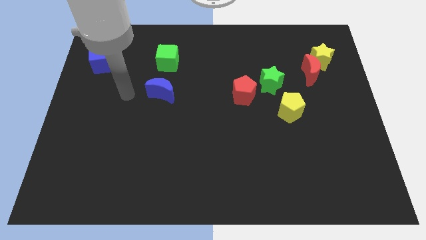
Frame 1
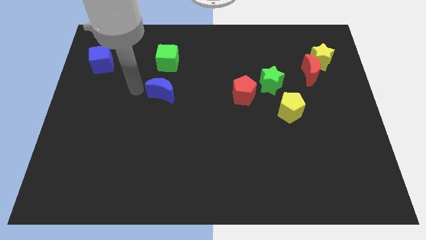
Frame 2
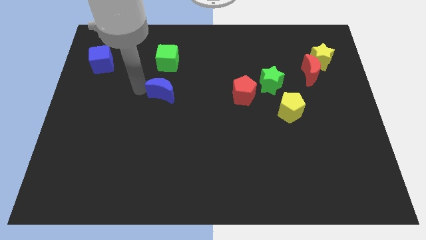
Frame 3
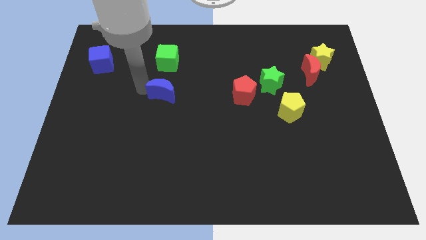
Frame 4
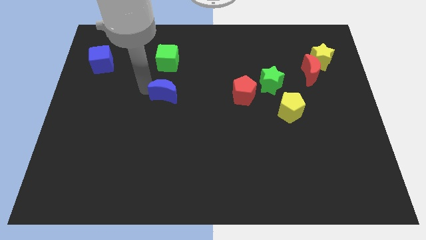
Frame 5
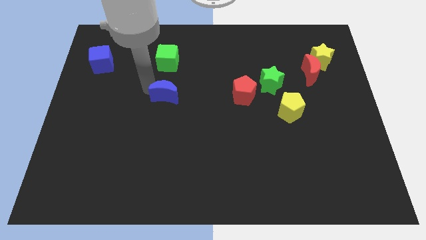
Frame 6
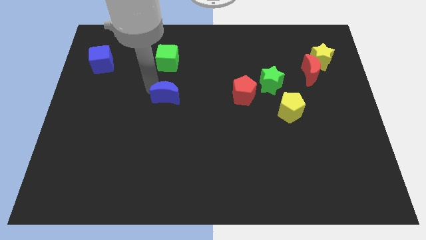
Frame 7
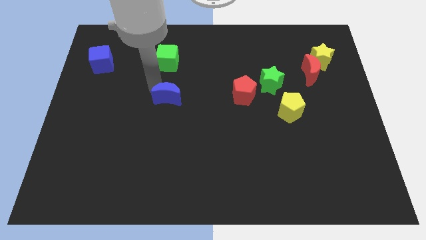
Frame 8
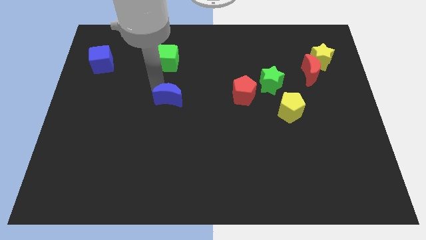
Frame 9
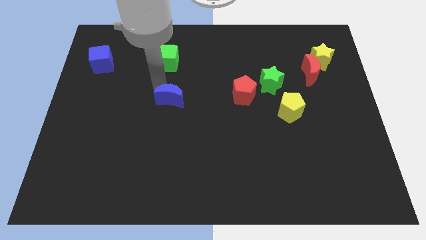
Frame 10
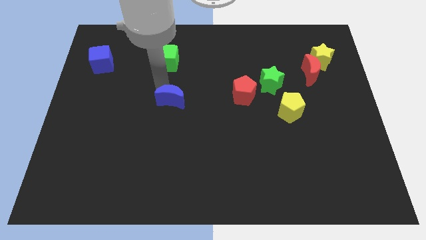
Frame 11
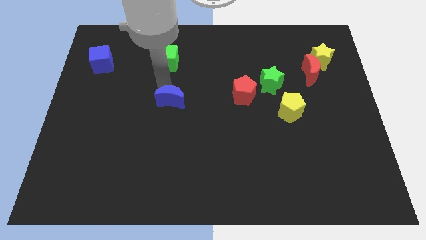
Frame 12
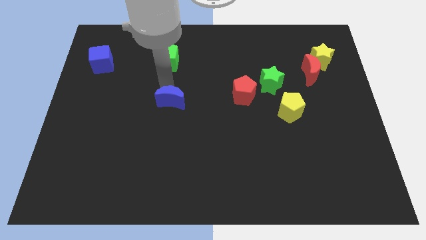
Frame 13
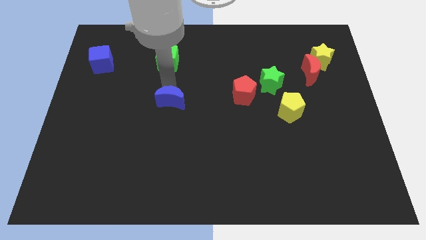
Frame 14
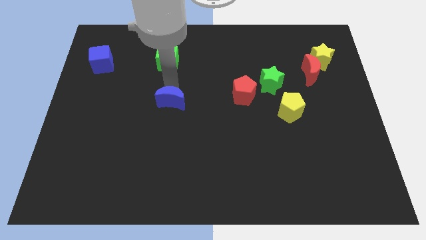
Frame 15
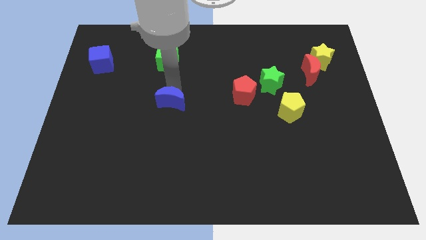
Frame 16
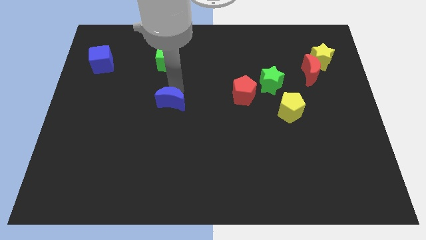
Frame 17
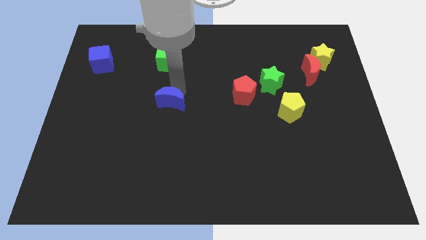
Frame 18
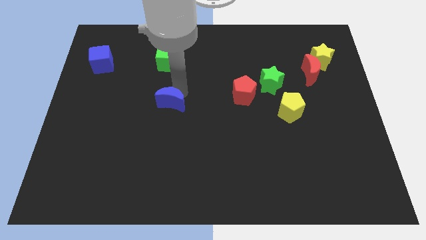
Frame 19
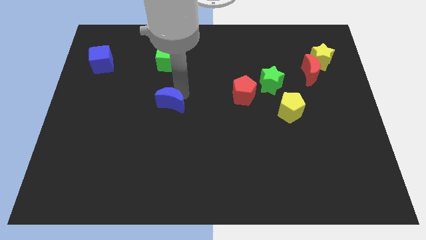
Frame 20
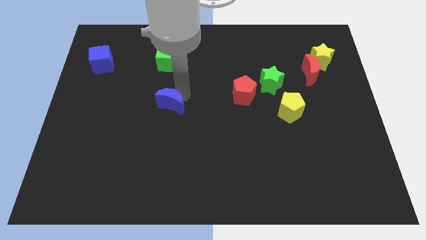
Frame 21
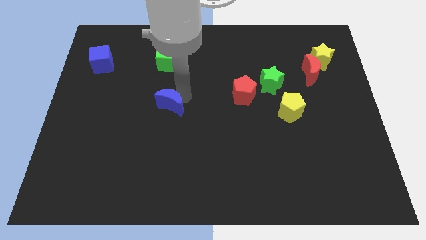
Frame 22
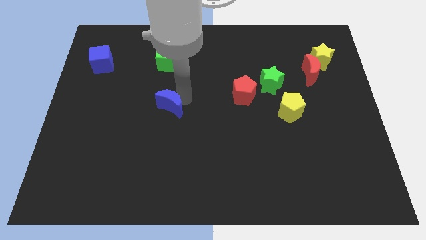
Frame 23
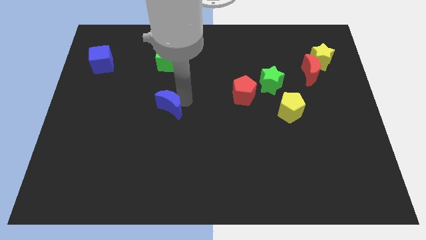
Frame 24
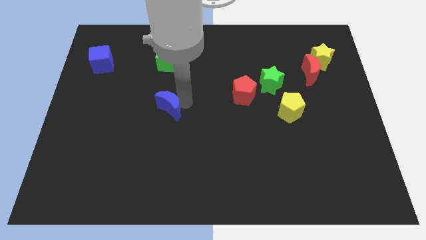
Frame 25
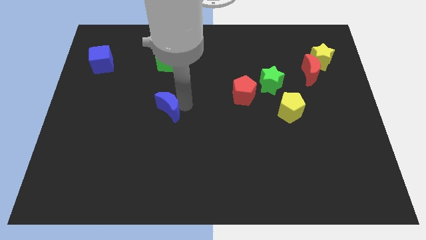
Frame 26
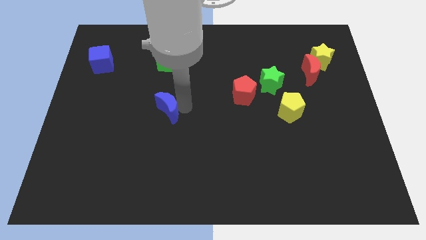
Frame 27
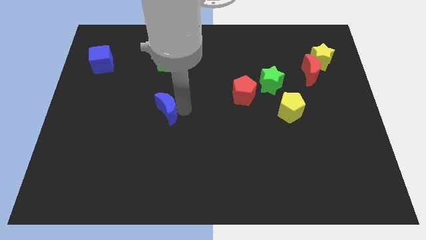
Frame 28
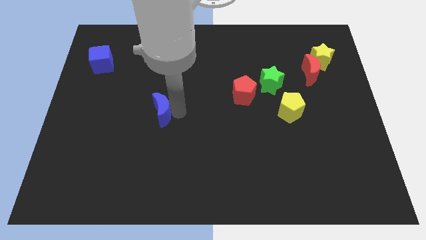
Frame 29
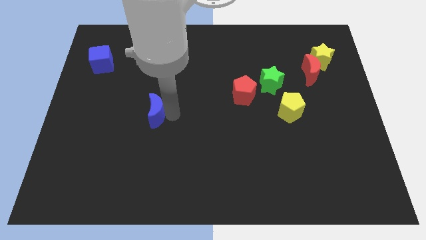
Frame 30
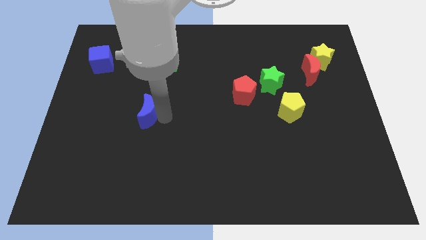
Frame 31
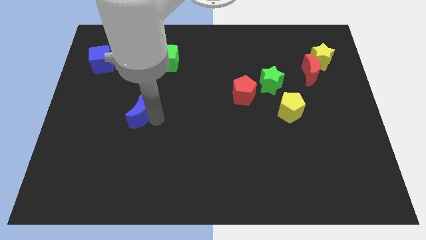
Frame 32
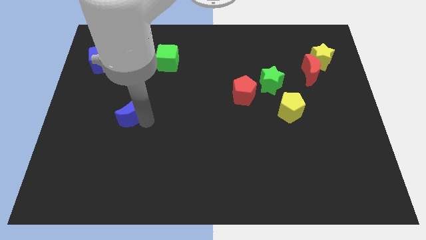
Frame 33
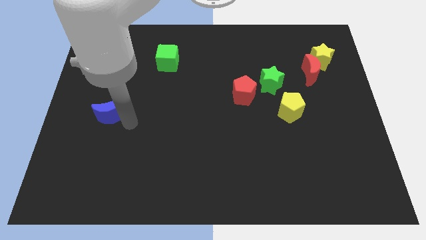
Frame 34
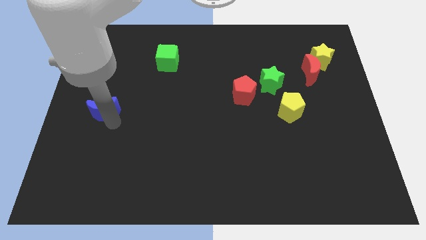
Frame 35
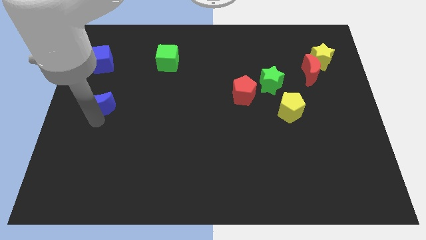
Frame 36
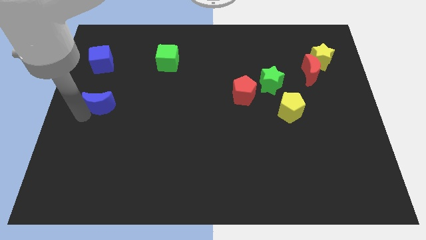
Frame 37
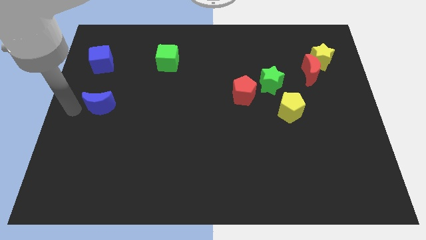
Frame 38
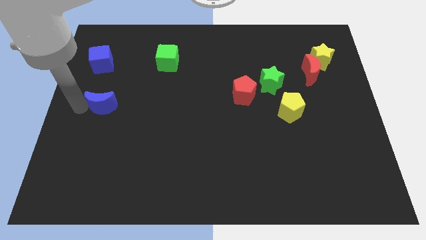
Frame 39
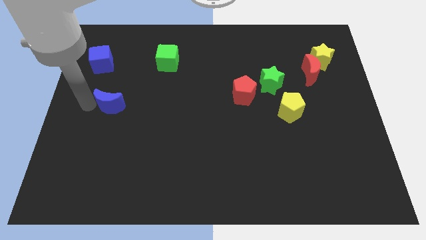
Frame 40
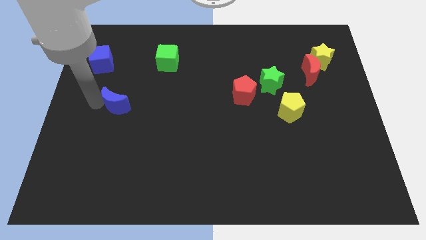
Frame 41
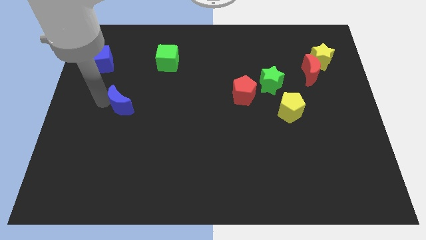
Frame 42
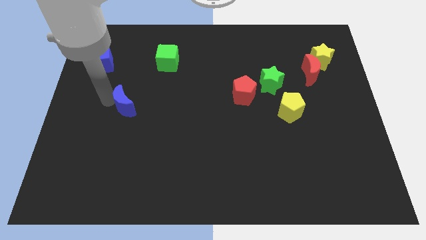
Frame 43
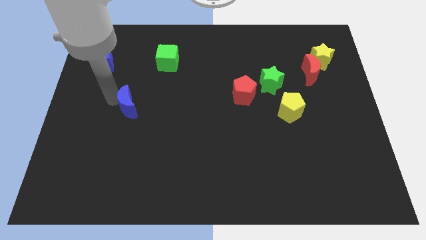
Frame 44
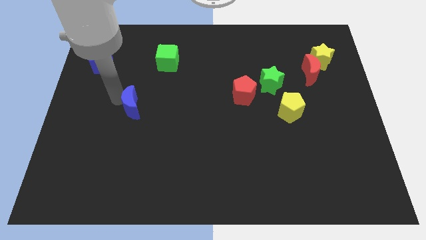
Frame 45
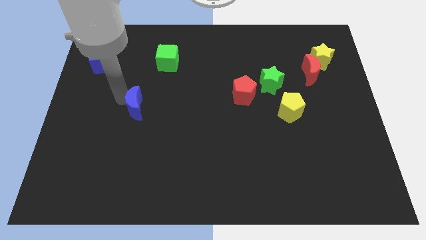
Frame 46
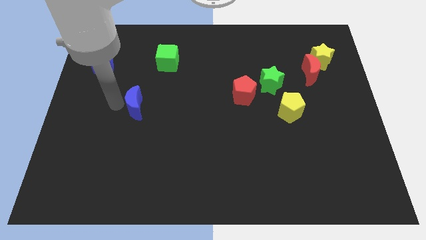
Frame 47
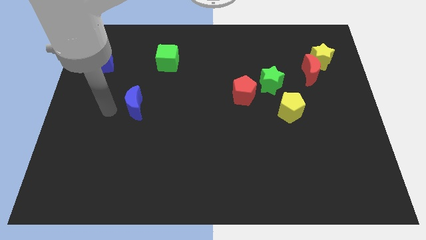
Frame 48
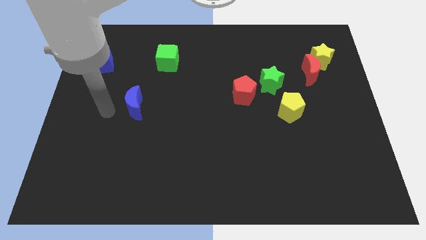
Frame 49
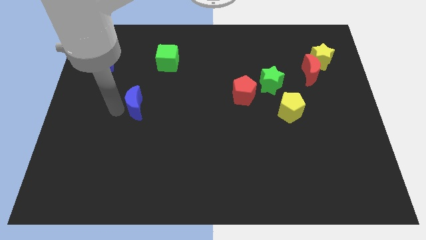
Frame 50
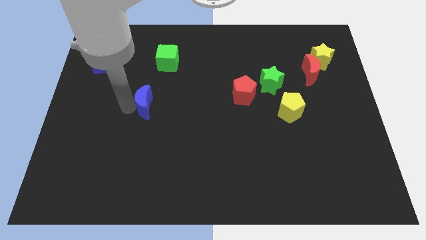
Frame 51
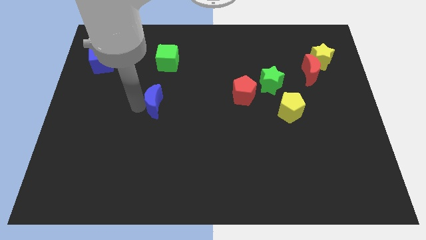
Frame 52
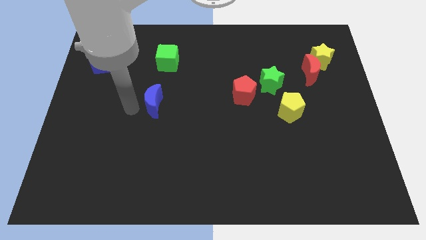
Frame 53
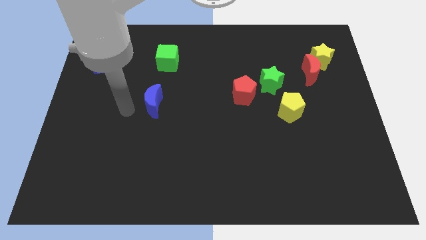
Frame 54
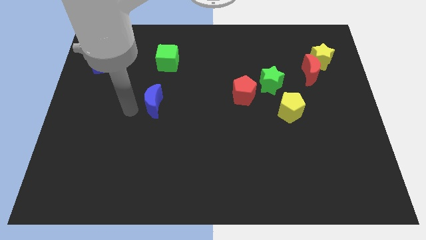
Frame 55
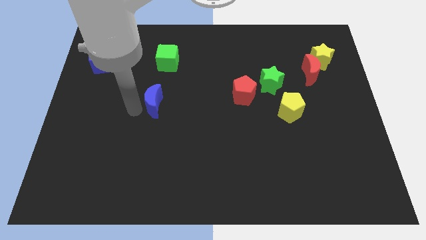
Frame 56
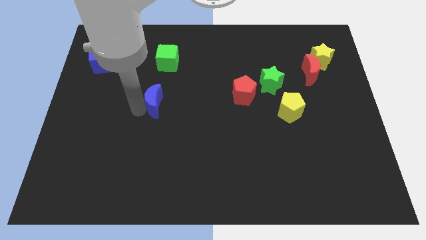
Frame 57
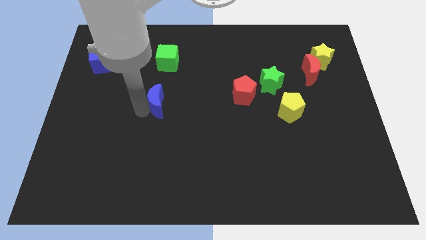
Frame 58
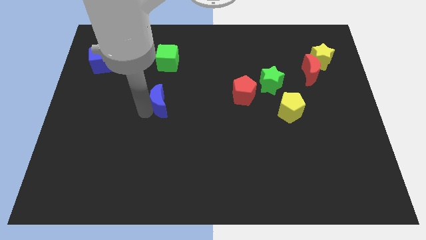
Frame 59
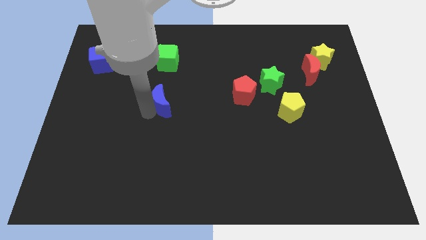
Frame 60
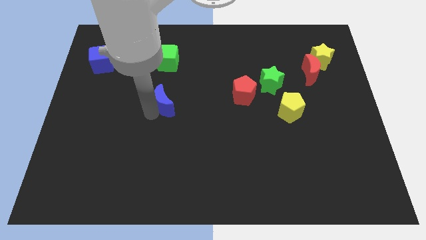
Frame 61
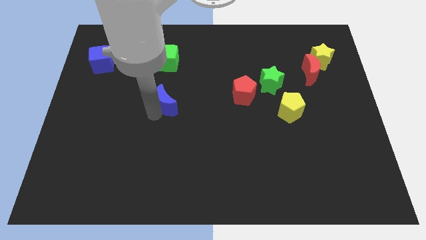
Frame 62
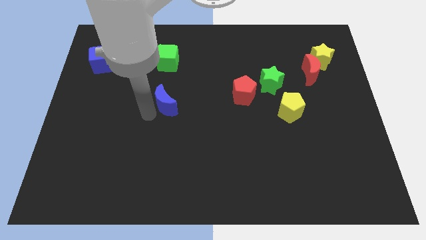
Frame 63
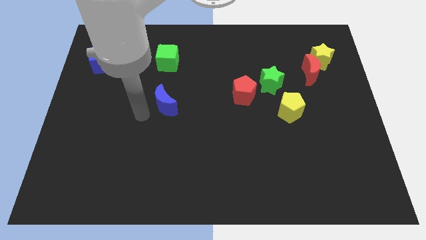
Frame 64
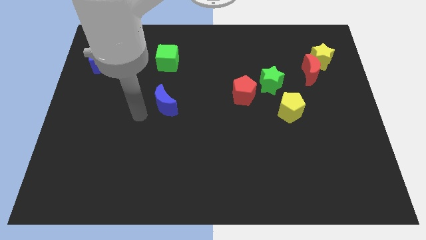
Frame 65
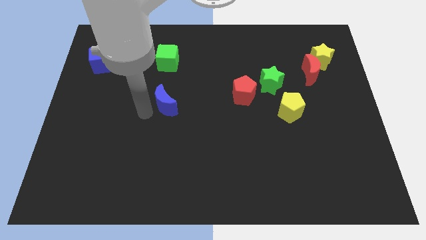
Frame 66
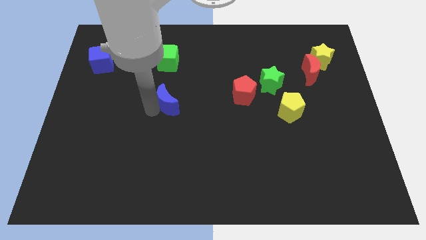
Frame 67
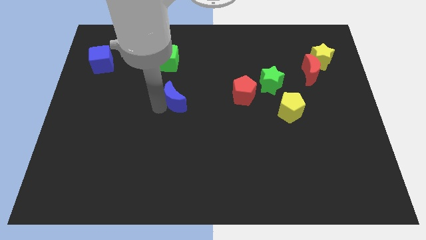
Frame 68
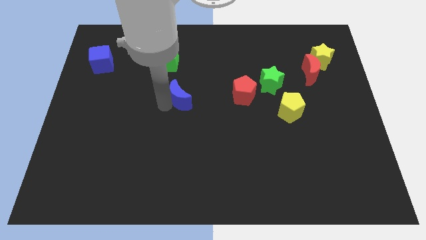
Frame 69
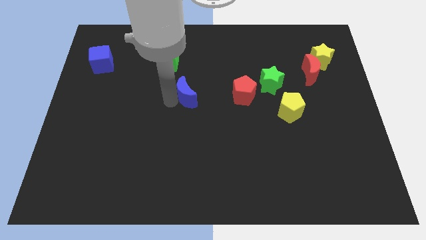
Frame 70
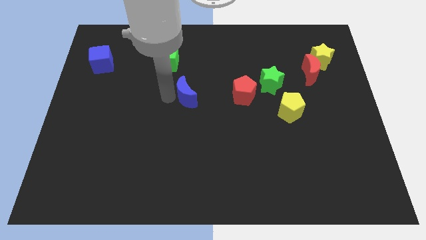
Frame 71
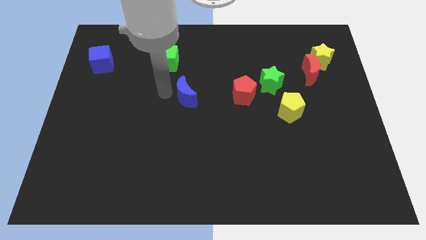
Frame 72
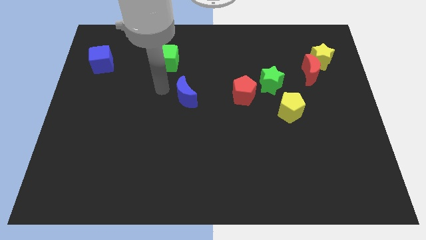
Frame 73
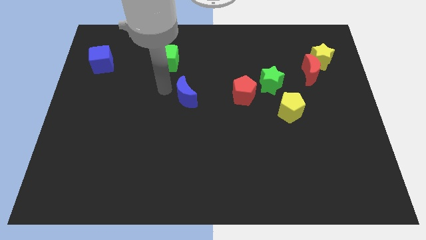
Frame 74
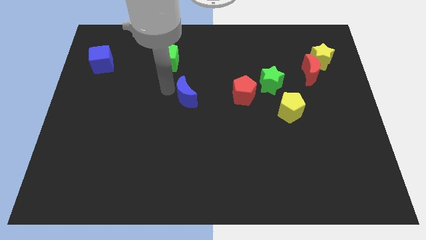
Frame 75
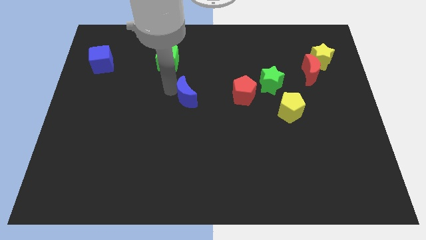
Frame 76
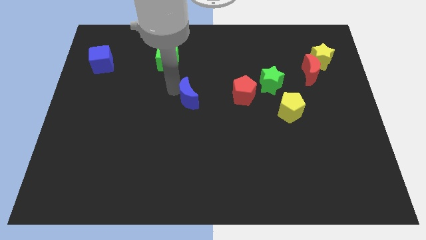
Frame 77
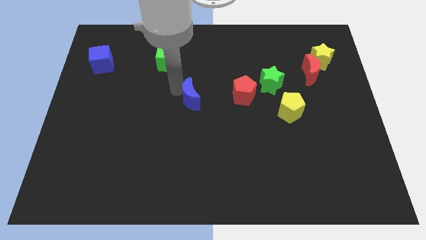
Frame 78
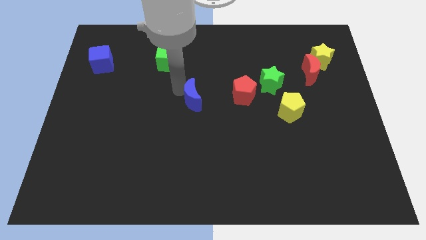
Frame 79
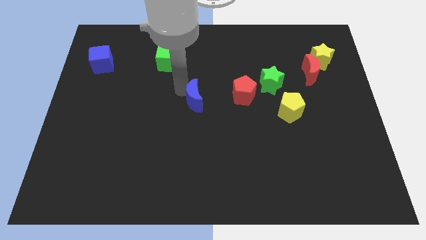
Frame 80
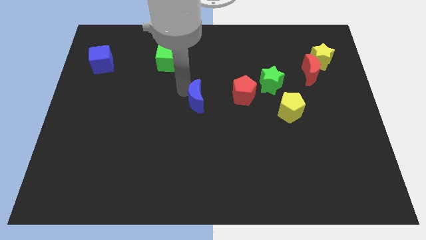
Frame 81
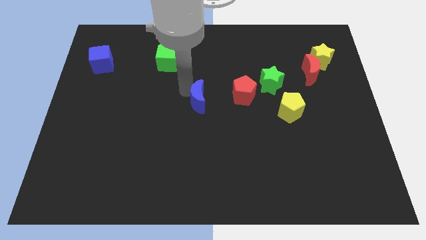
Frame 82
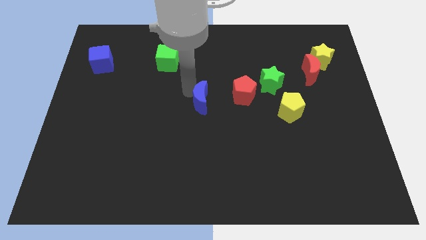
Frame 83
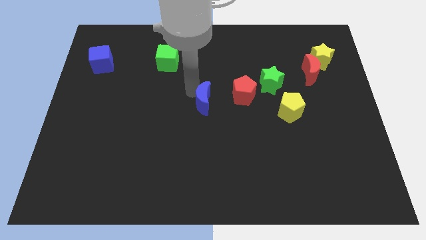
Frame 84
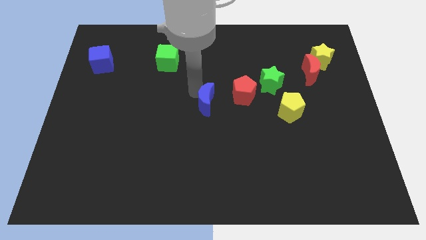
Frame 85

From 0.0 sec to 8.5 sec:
move the blue moon to the bottom left side of the red pentagon
